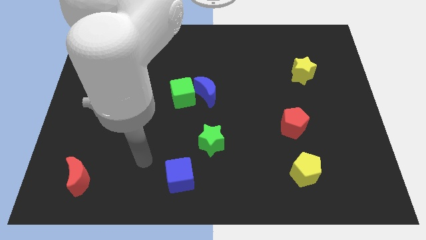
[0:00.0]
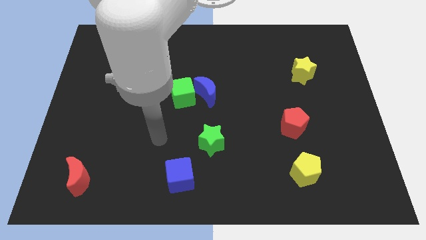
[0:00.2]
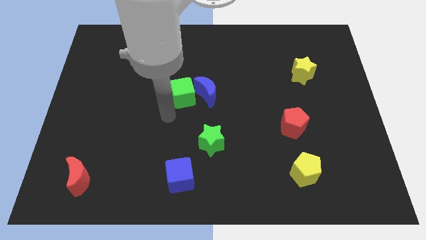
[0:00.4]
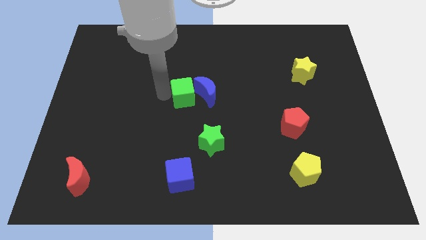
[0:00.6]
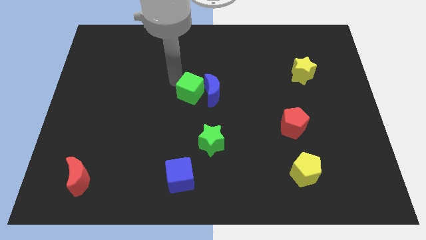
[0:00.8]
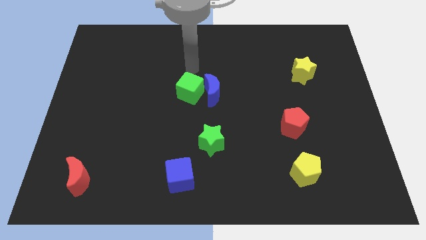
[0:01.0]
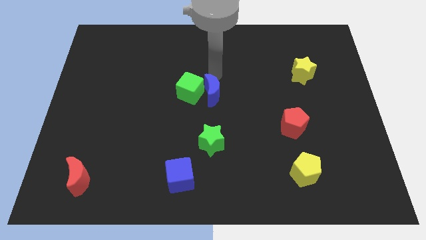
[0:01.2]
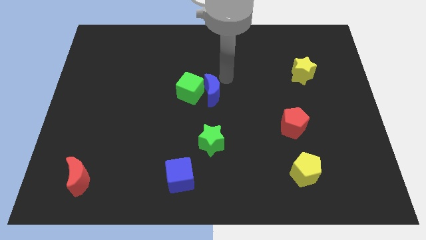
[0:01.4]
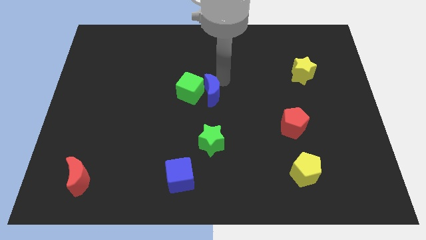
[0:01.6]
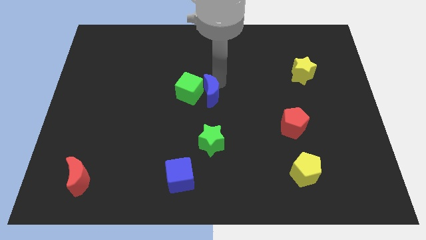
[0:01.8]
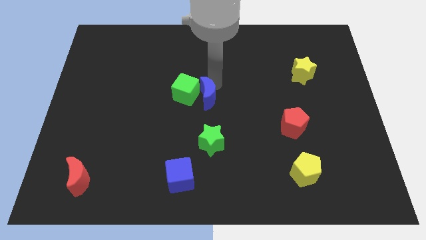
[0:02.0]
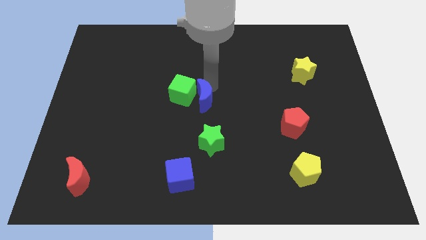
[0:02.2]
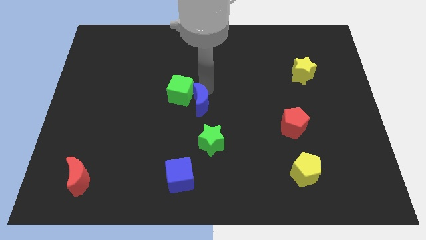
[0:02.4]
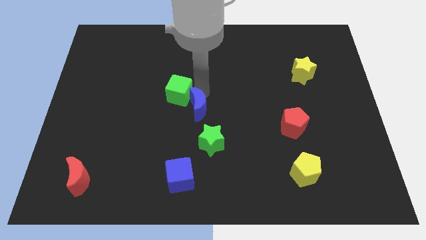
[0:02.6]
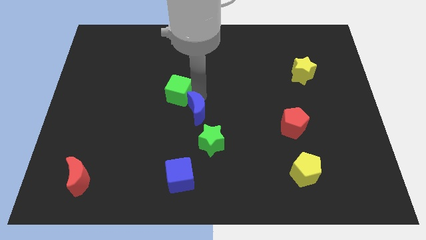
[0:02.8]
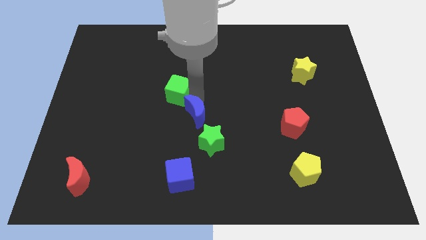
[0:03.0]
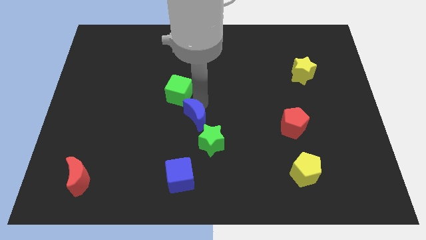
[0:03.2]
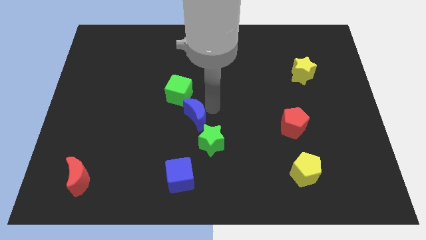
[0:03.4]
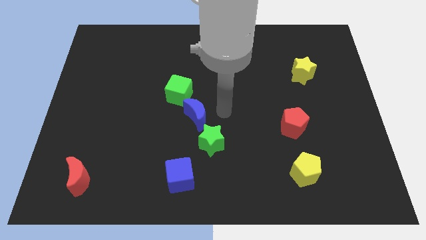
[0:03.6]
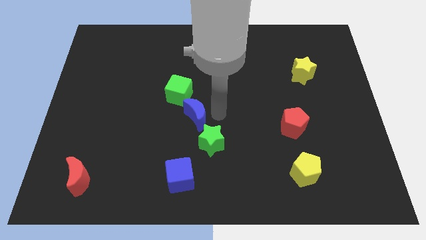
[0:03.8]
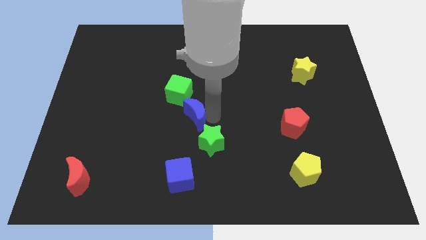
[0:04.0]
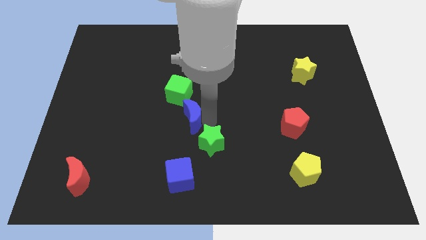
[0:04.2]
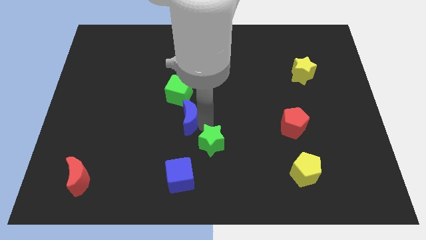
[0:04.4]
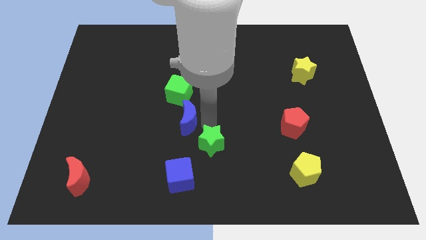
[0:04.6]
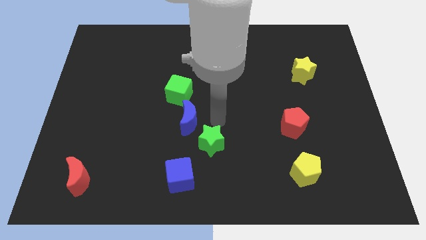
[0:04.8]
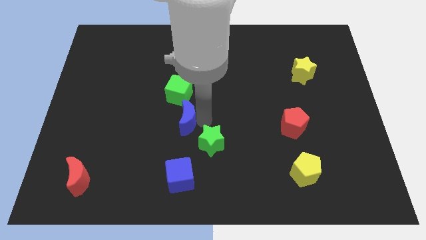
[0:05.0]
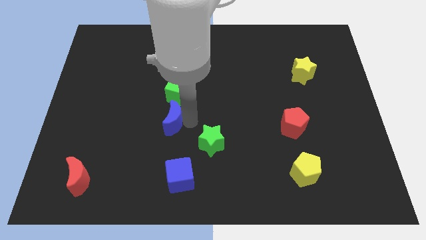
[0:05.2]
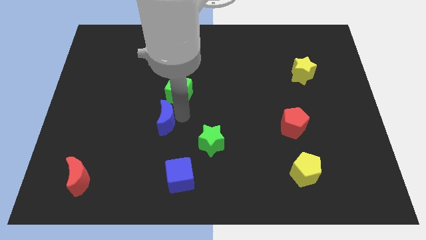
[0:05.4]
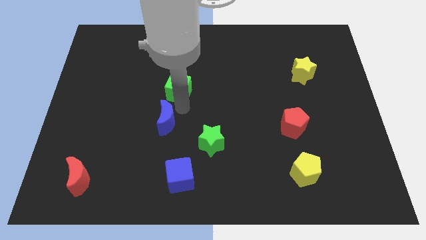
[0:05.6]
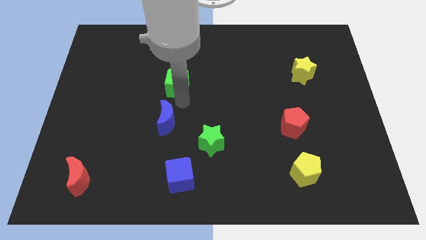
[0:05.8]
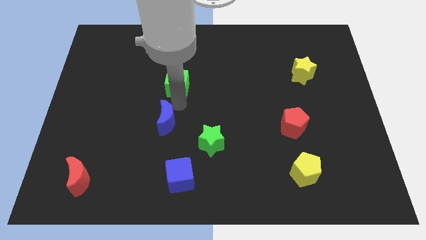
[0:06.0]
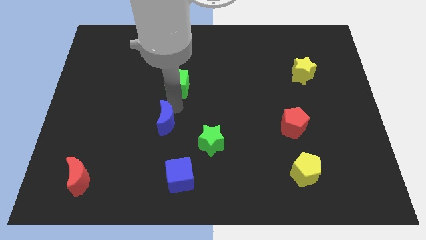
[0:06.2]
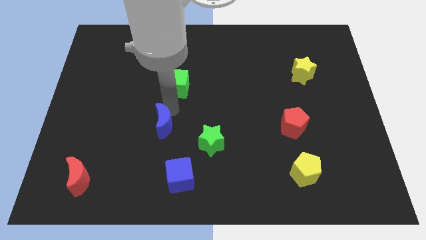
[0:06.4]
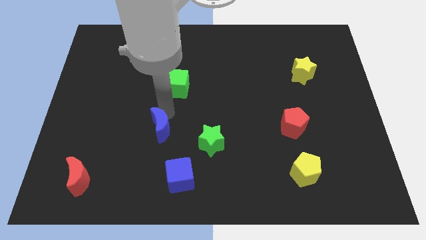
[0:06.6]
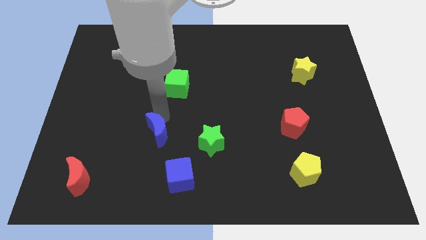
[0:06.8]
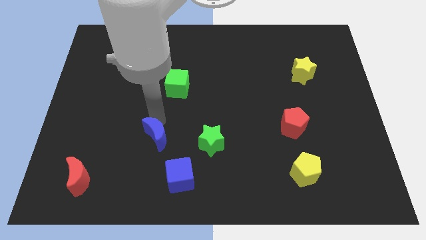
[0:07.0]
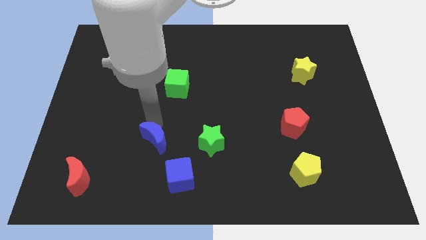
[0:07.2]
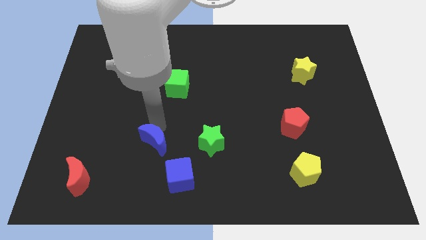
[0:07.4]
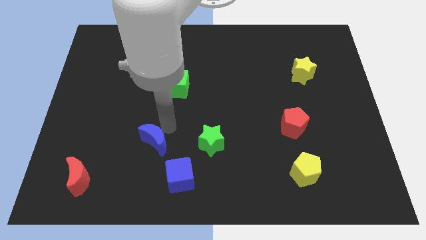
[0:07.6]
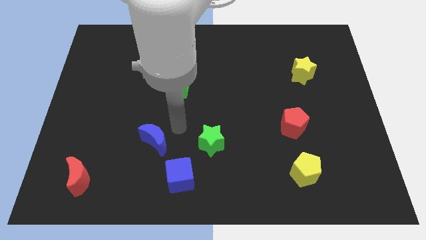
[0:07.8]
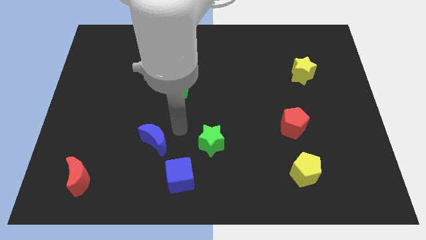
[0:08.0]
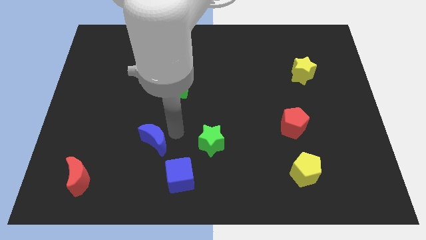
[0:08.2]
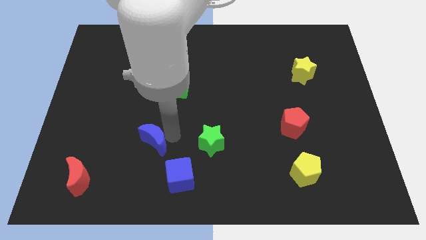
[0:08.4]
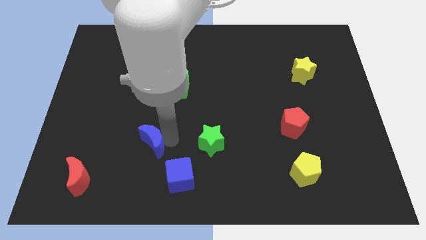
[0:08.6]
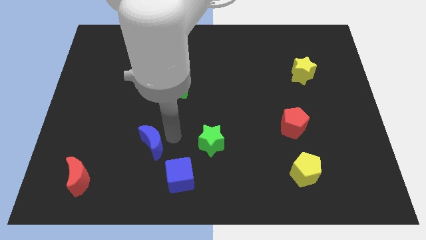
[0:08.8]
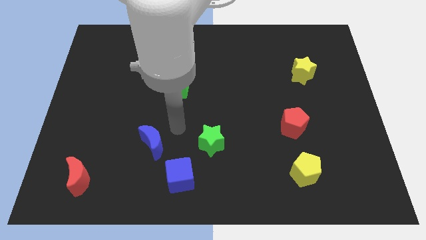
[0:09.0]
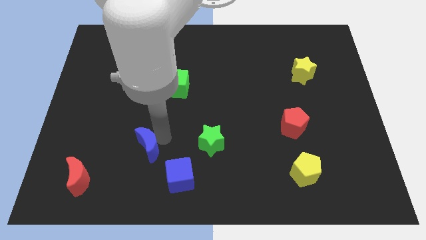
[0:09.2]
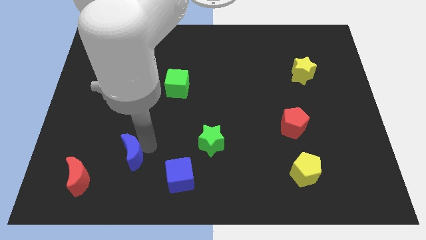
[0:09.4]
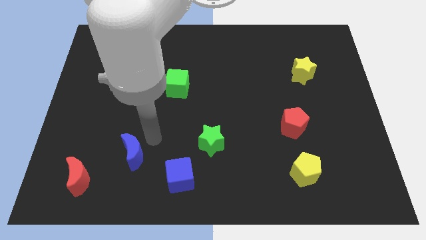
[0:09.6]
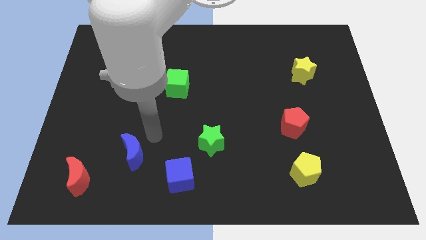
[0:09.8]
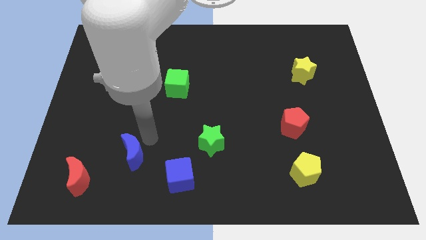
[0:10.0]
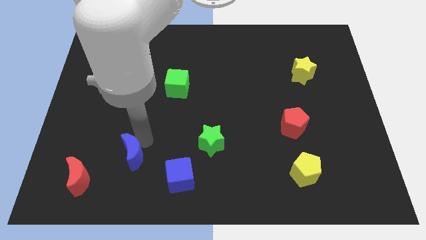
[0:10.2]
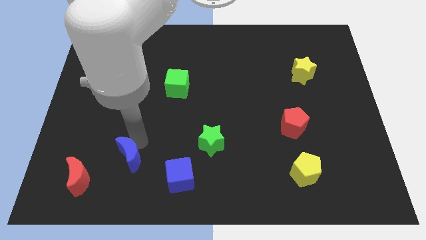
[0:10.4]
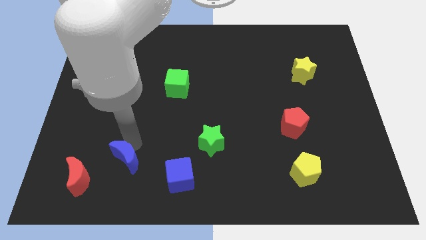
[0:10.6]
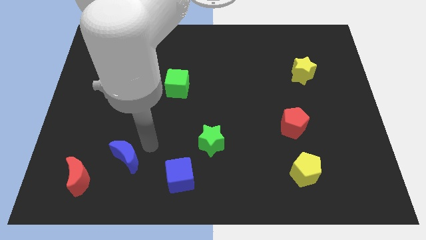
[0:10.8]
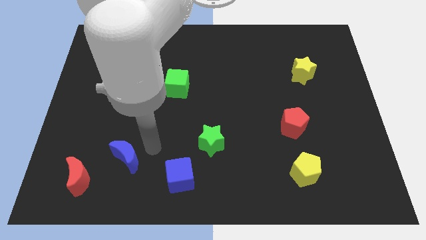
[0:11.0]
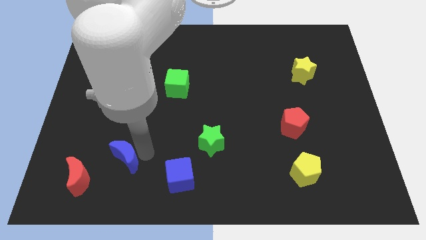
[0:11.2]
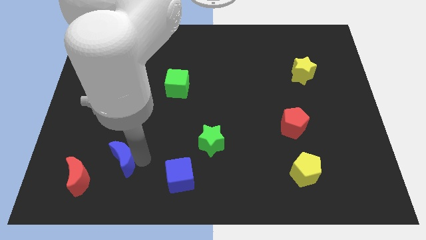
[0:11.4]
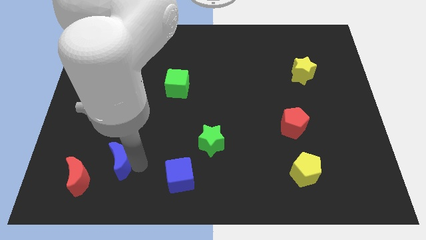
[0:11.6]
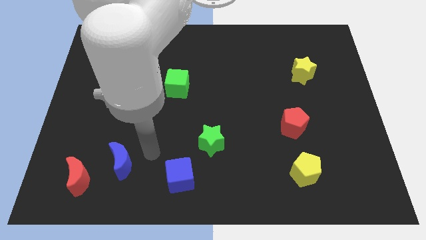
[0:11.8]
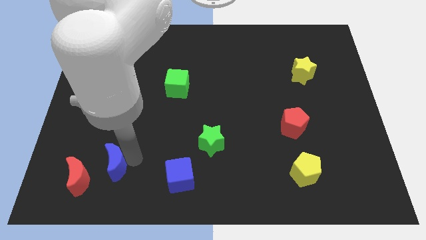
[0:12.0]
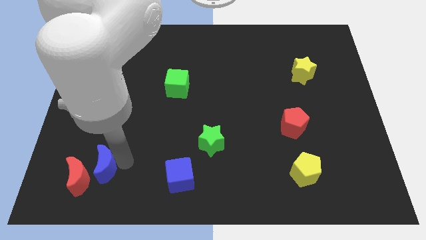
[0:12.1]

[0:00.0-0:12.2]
put the blue moon next to the red moon

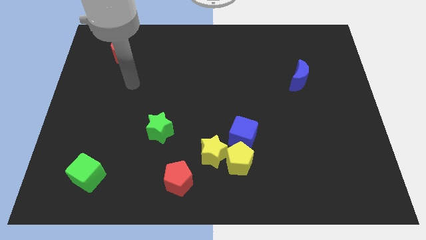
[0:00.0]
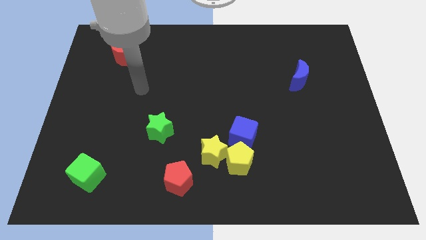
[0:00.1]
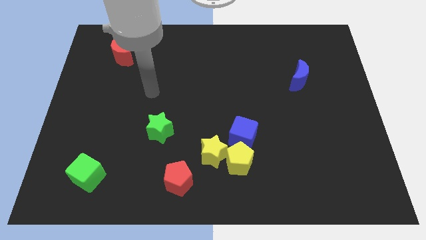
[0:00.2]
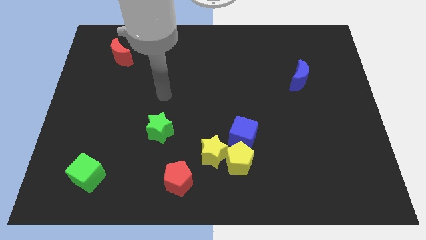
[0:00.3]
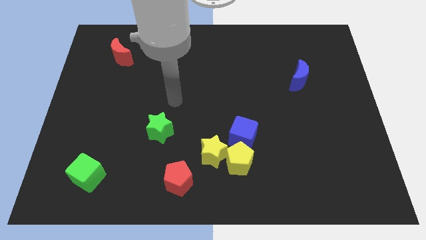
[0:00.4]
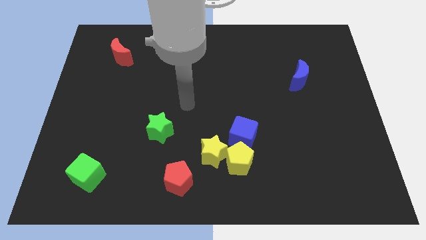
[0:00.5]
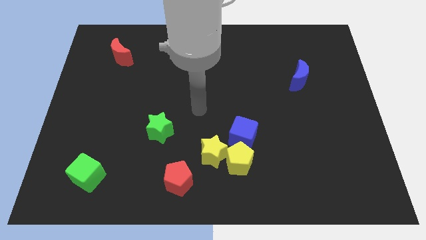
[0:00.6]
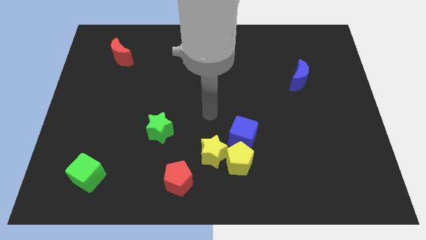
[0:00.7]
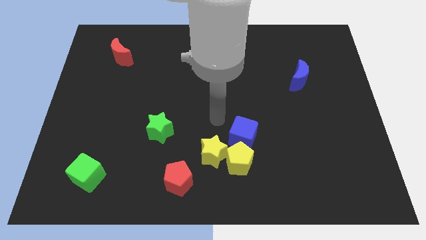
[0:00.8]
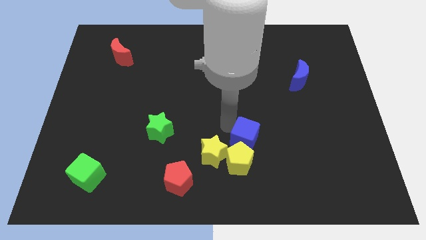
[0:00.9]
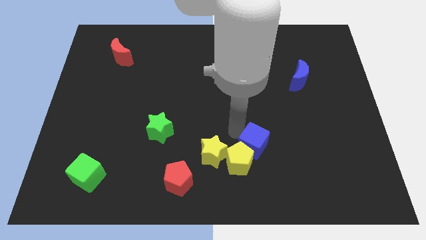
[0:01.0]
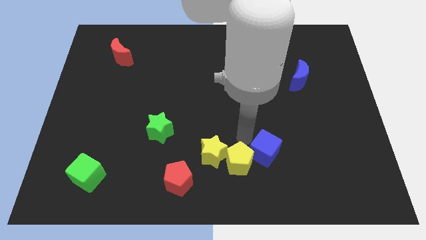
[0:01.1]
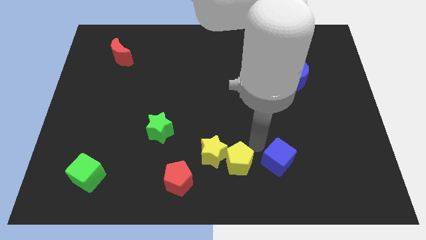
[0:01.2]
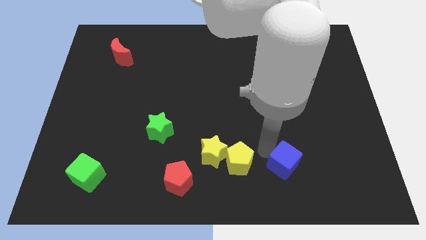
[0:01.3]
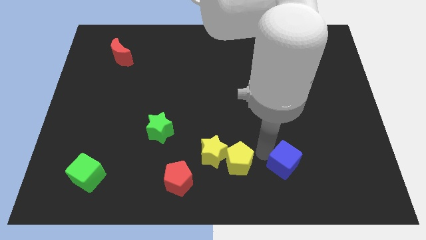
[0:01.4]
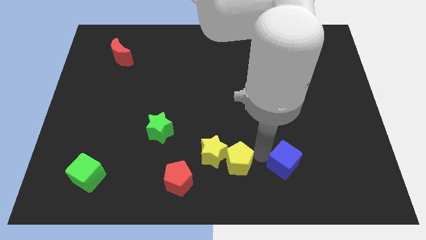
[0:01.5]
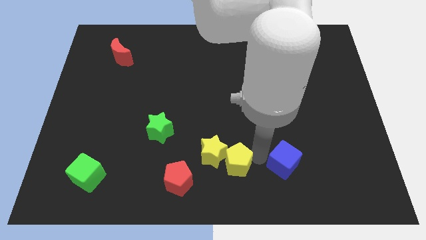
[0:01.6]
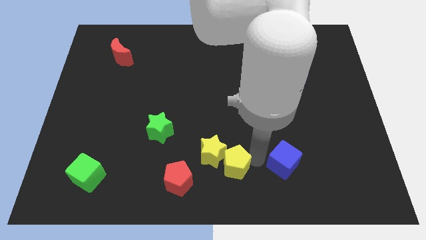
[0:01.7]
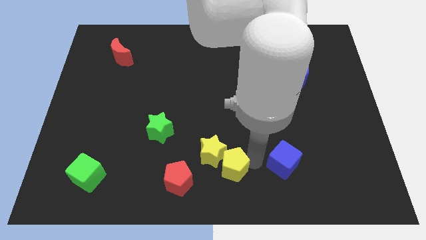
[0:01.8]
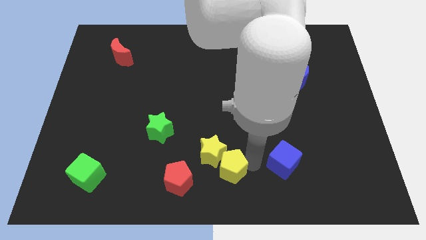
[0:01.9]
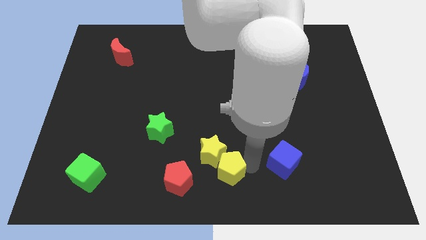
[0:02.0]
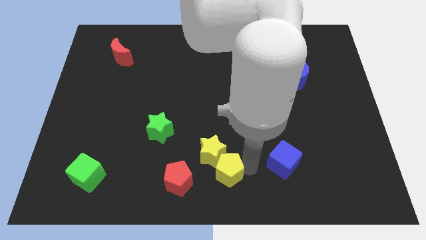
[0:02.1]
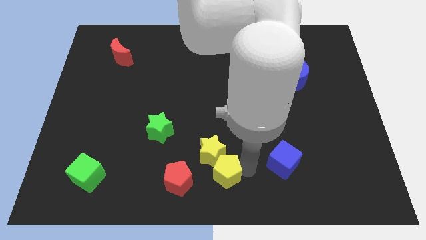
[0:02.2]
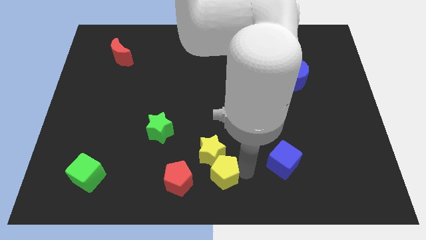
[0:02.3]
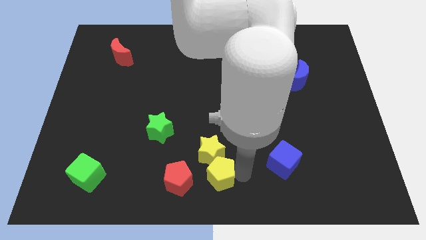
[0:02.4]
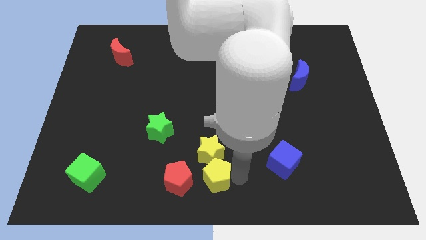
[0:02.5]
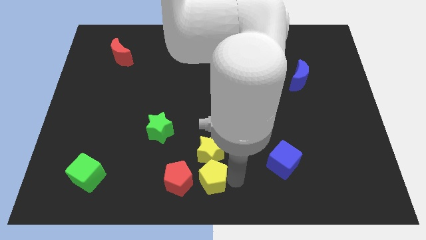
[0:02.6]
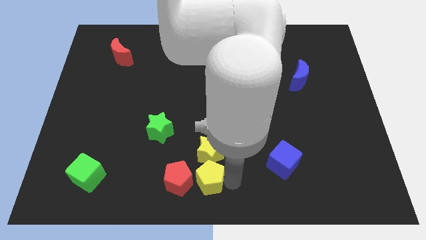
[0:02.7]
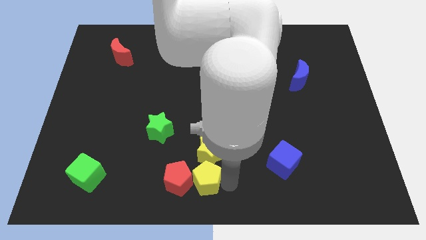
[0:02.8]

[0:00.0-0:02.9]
move the yellow pentagon close to the red pentagon
